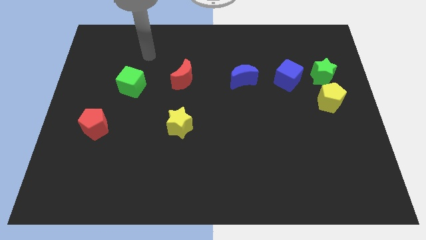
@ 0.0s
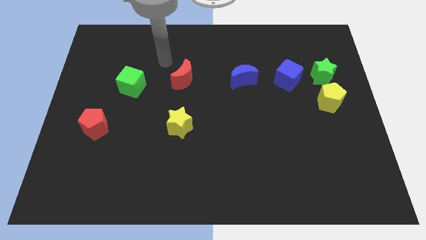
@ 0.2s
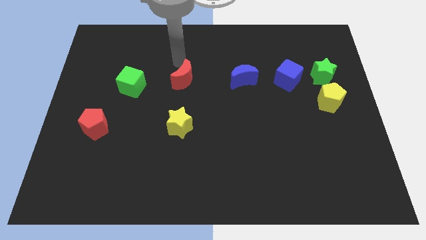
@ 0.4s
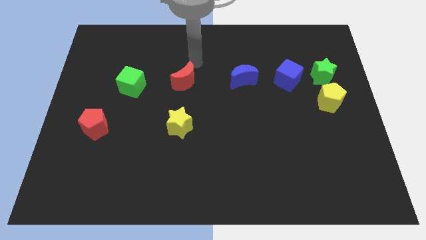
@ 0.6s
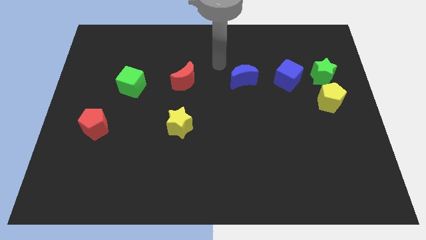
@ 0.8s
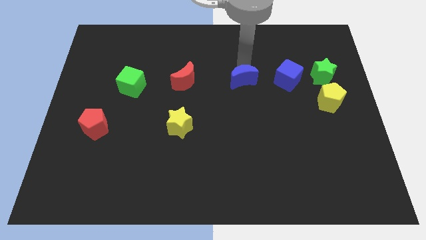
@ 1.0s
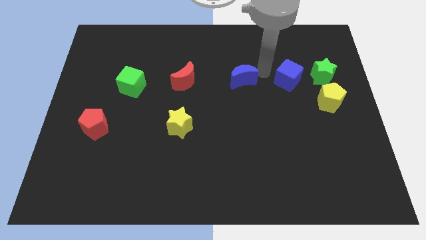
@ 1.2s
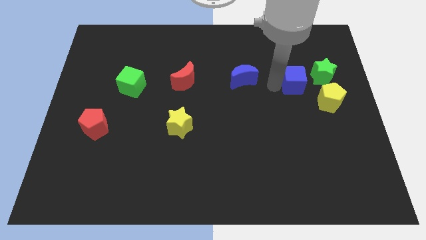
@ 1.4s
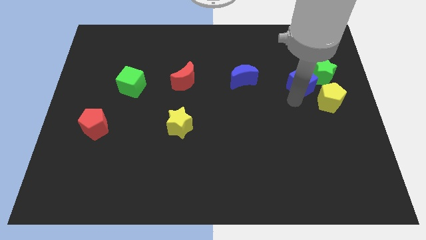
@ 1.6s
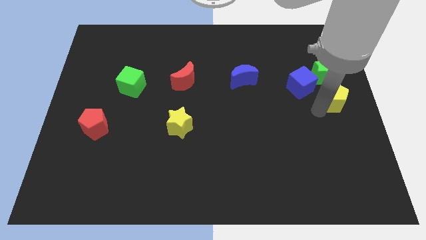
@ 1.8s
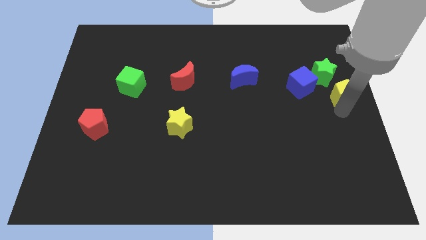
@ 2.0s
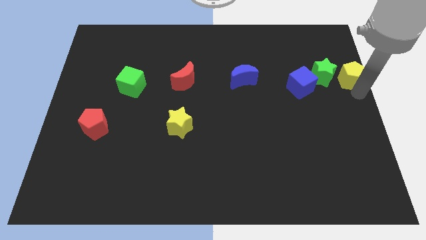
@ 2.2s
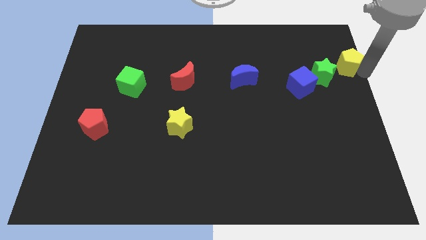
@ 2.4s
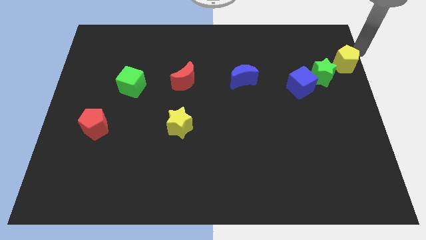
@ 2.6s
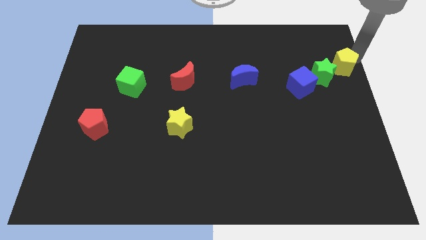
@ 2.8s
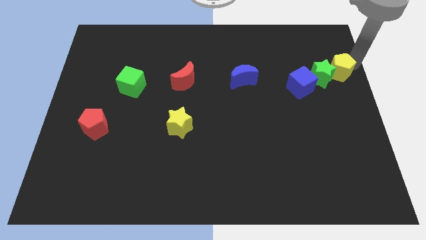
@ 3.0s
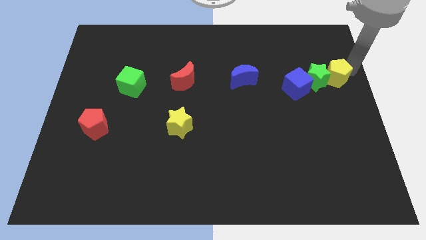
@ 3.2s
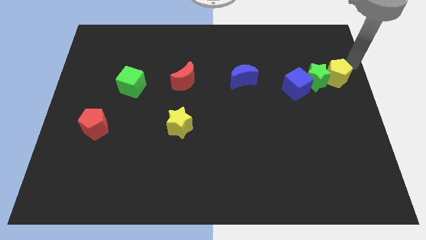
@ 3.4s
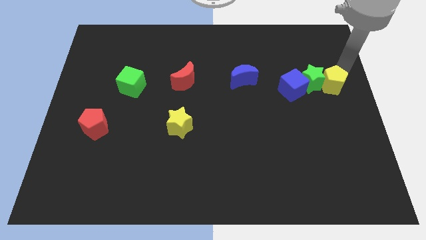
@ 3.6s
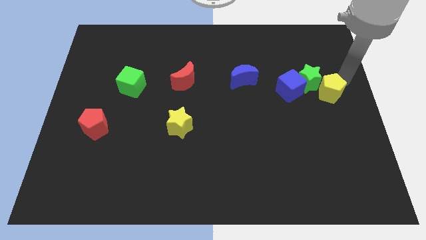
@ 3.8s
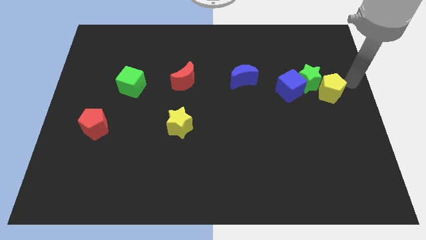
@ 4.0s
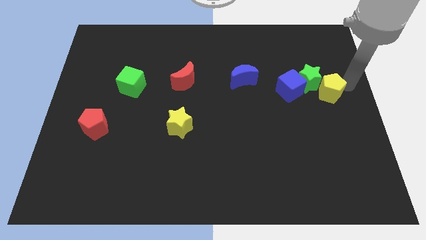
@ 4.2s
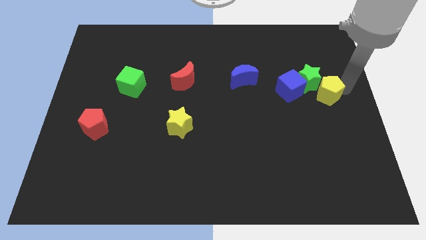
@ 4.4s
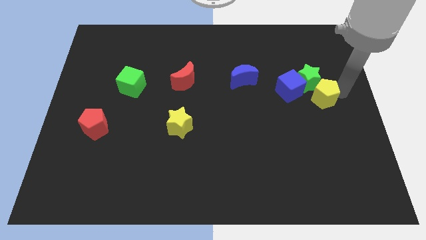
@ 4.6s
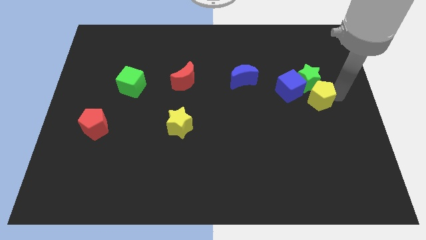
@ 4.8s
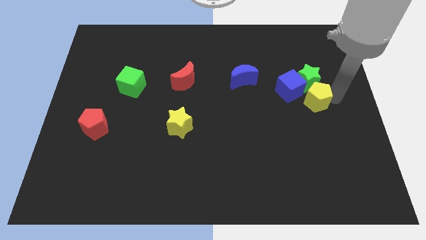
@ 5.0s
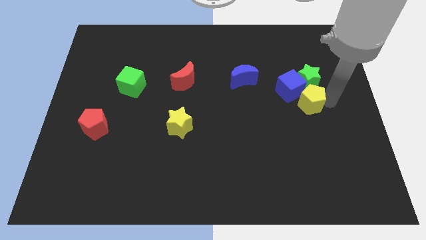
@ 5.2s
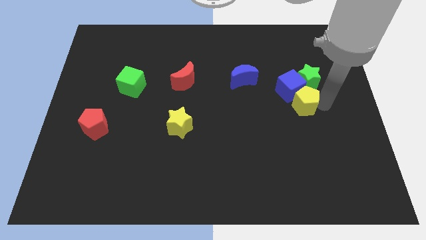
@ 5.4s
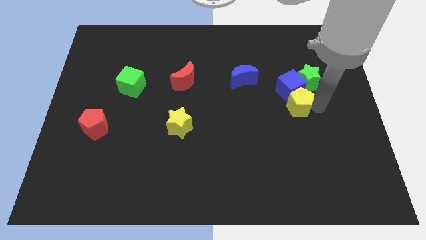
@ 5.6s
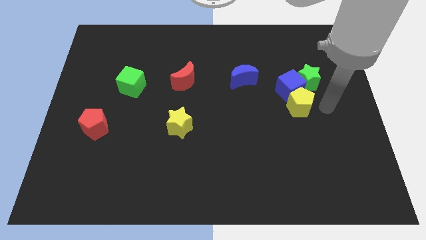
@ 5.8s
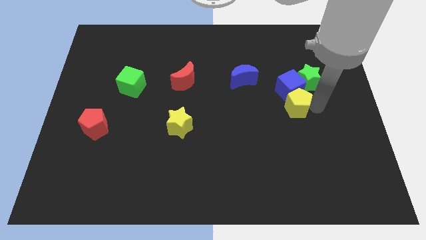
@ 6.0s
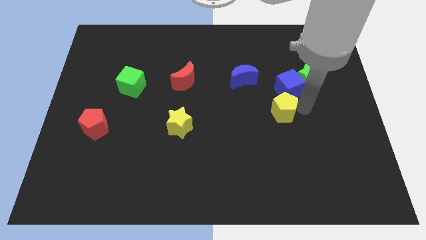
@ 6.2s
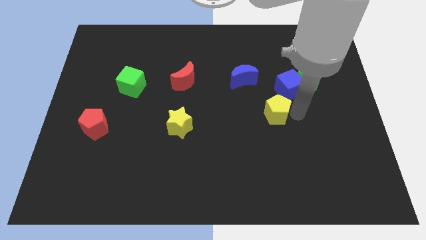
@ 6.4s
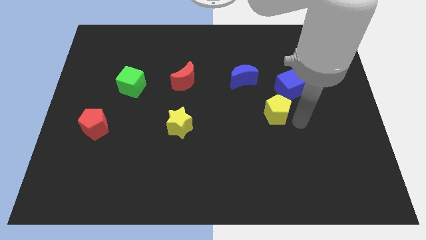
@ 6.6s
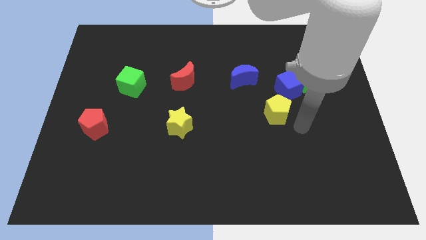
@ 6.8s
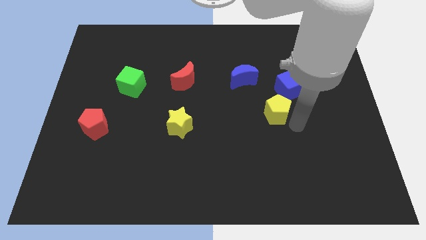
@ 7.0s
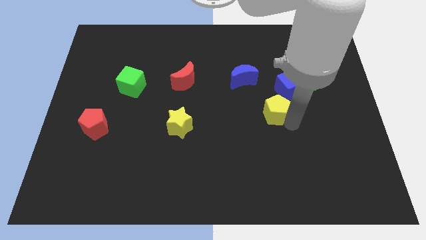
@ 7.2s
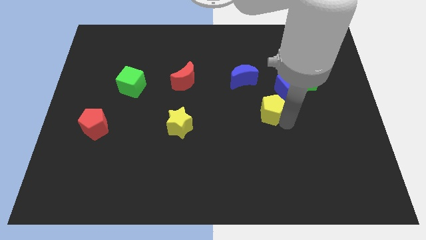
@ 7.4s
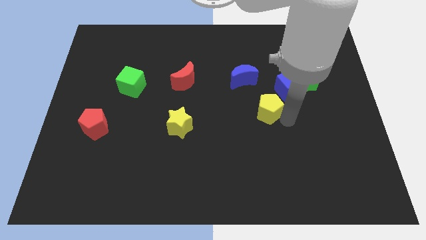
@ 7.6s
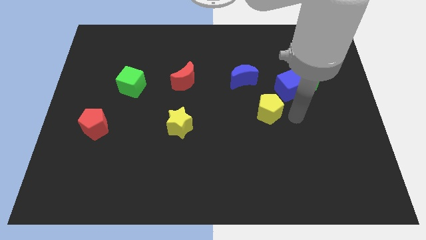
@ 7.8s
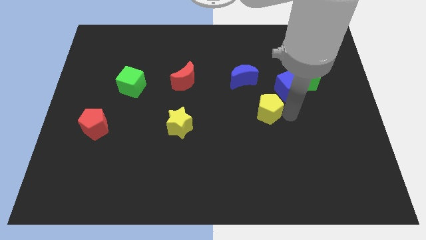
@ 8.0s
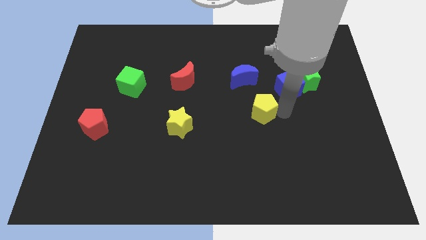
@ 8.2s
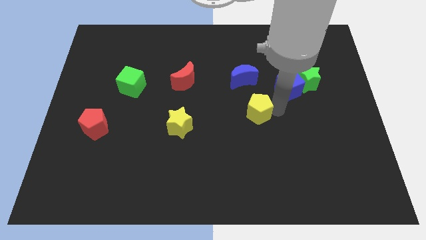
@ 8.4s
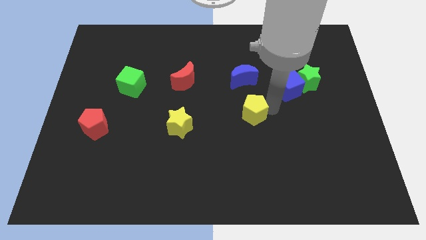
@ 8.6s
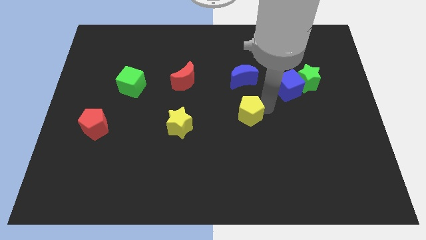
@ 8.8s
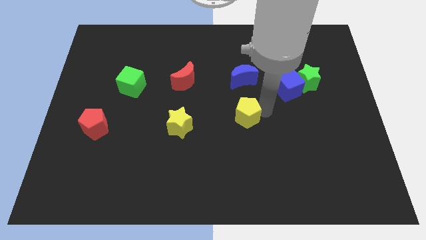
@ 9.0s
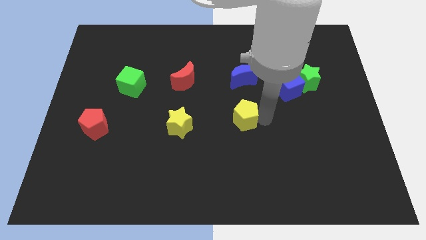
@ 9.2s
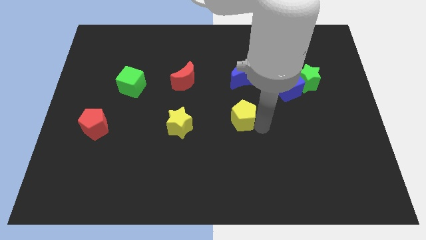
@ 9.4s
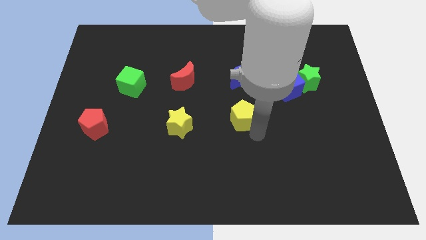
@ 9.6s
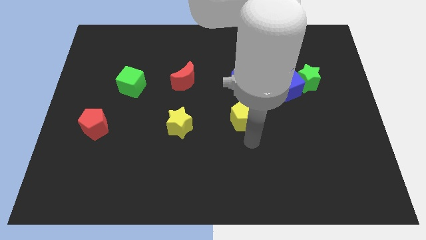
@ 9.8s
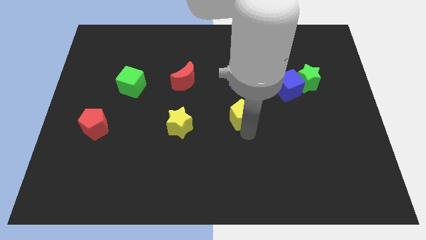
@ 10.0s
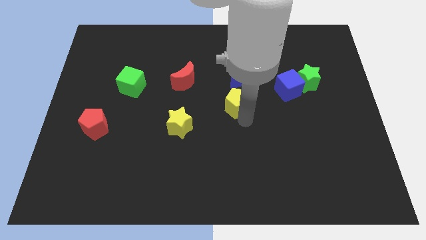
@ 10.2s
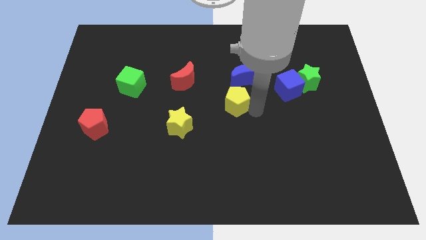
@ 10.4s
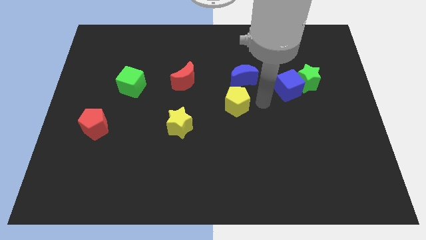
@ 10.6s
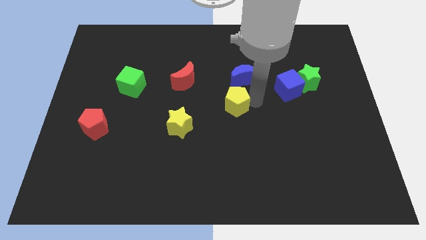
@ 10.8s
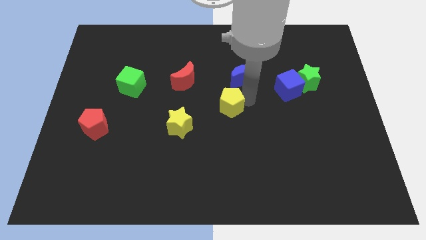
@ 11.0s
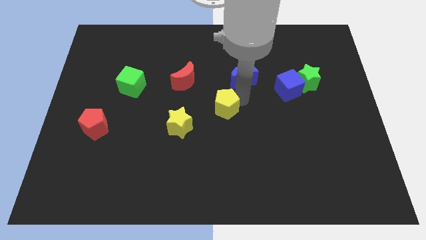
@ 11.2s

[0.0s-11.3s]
put the yellow pentagon to the top right side of the yellow star

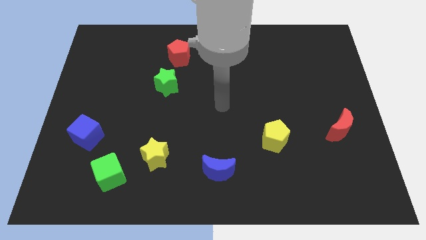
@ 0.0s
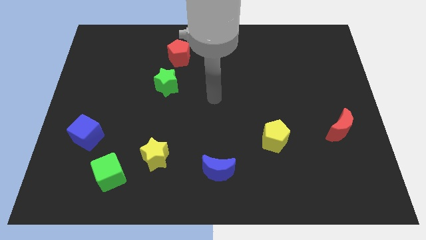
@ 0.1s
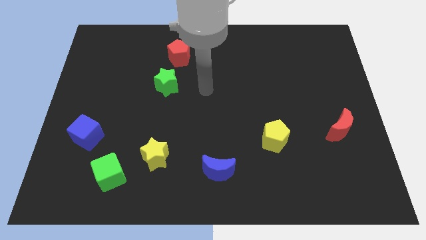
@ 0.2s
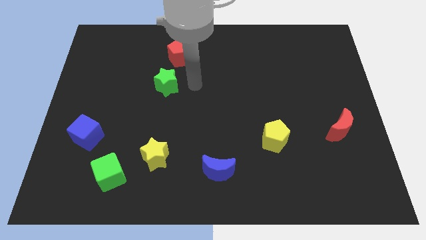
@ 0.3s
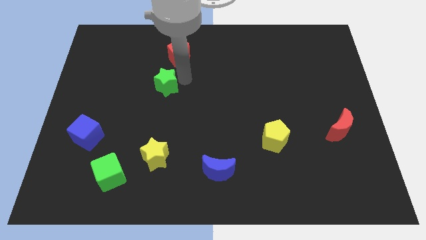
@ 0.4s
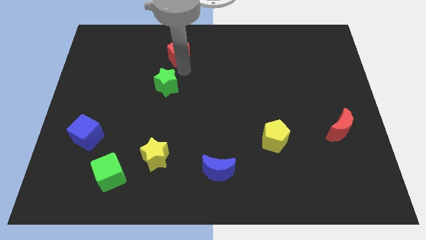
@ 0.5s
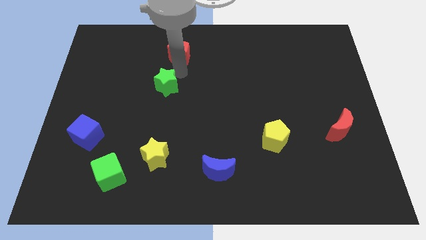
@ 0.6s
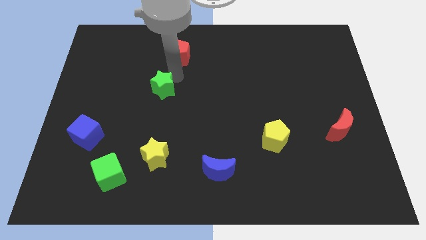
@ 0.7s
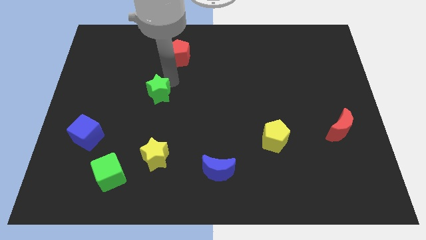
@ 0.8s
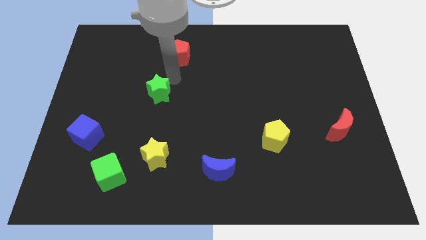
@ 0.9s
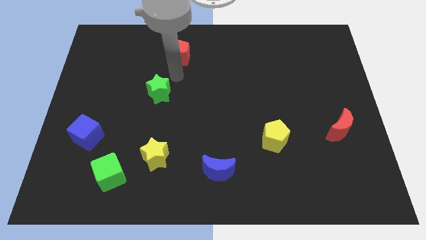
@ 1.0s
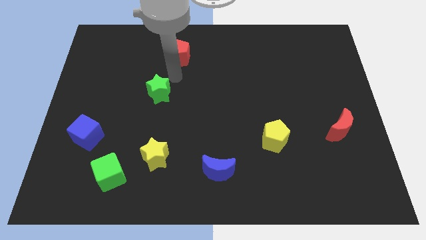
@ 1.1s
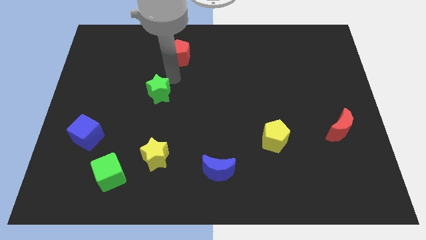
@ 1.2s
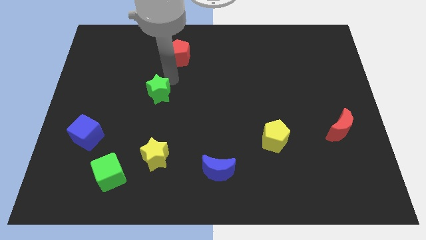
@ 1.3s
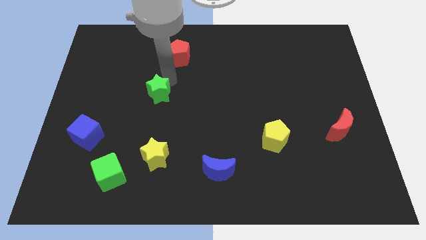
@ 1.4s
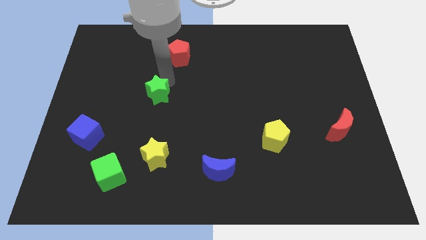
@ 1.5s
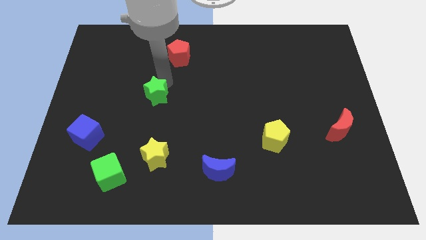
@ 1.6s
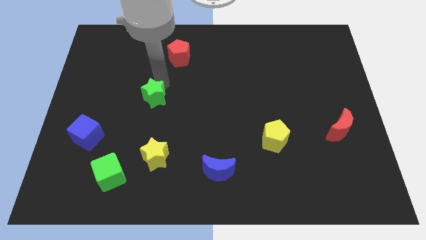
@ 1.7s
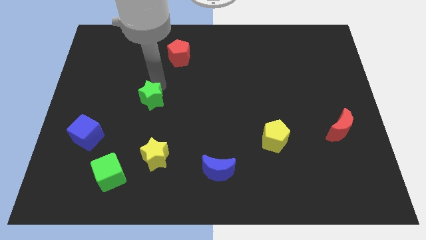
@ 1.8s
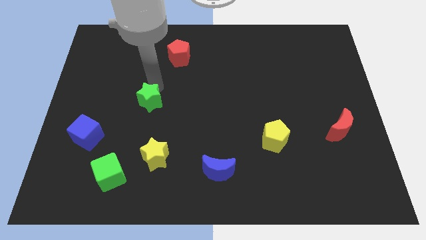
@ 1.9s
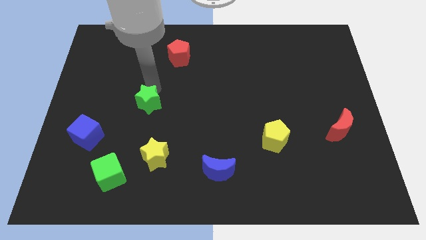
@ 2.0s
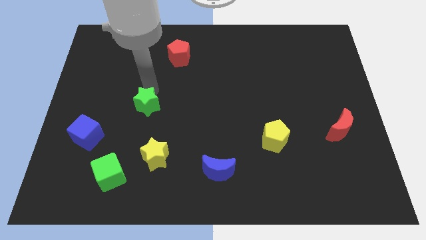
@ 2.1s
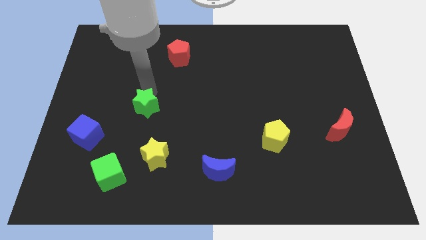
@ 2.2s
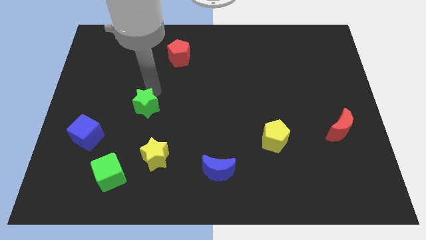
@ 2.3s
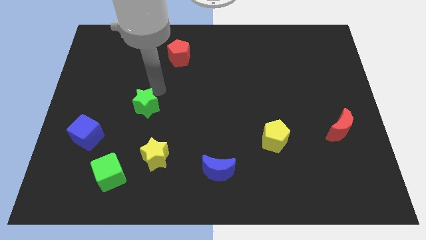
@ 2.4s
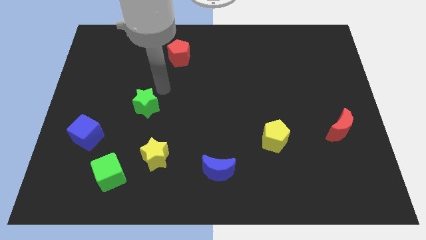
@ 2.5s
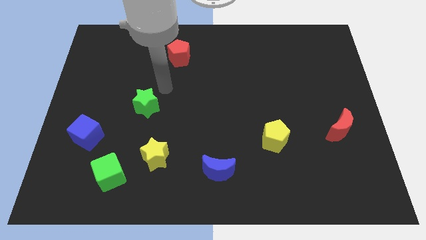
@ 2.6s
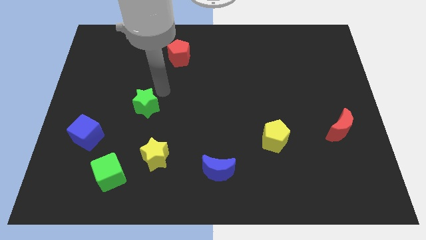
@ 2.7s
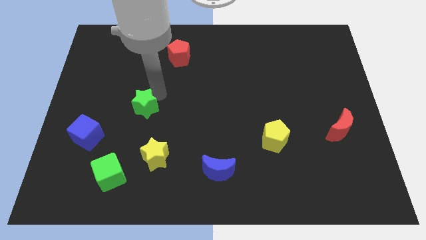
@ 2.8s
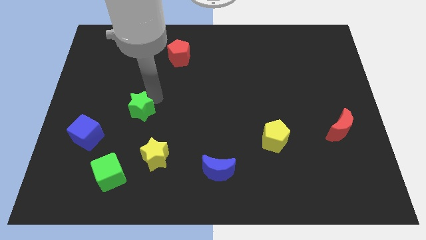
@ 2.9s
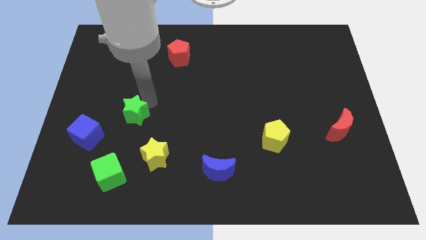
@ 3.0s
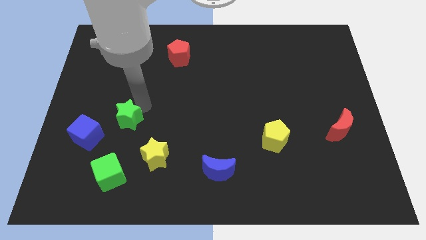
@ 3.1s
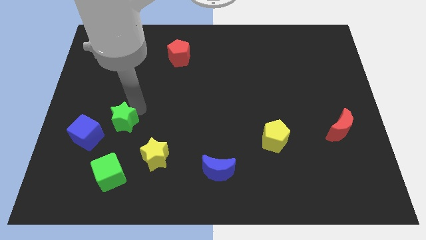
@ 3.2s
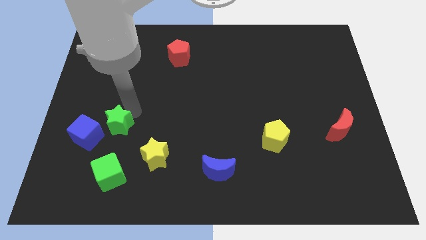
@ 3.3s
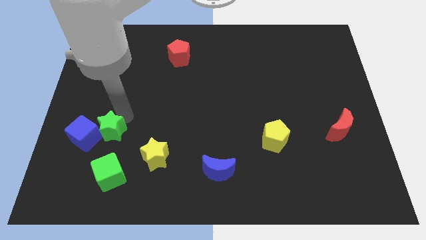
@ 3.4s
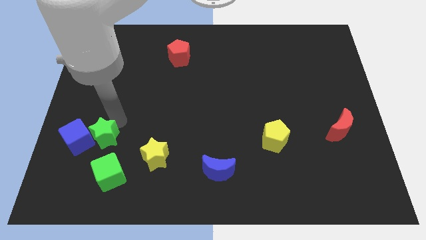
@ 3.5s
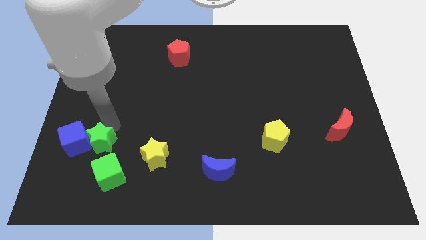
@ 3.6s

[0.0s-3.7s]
move the green star to the left side of the yellow star
